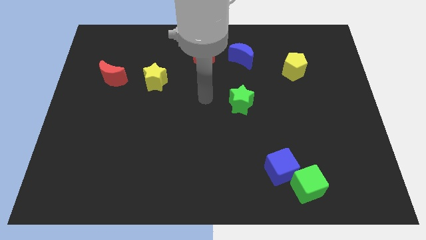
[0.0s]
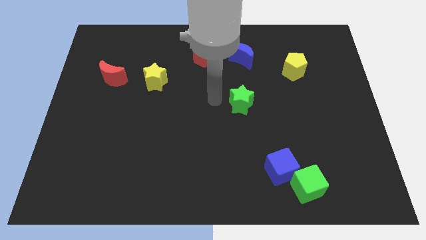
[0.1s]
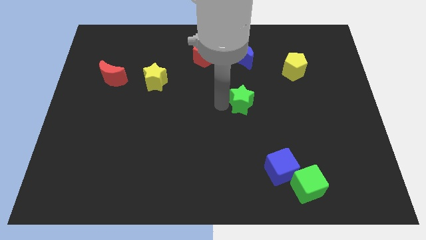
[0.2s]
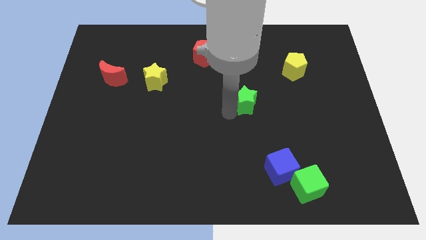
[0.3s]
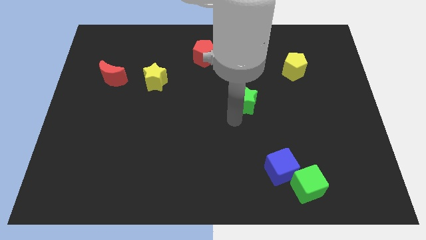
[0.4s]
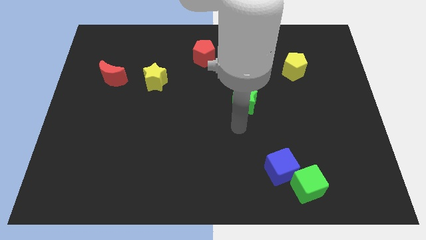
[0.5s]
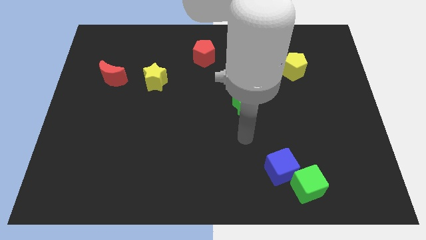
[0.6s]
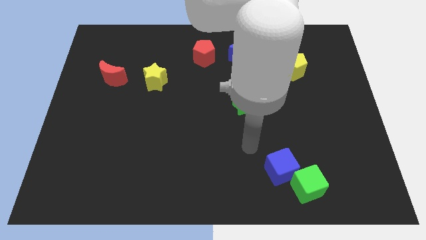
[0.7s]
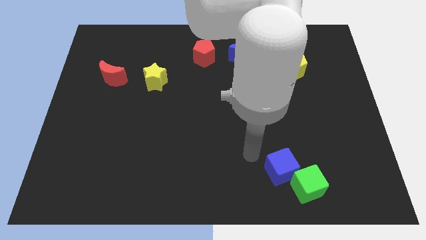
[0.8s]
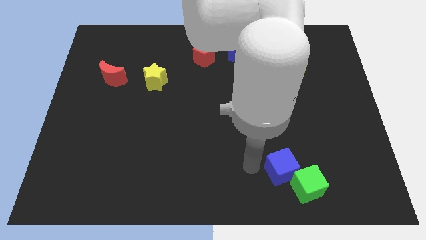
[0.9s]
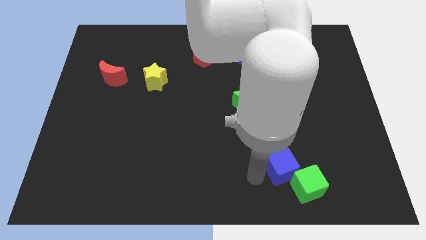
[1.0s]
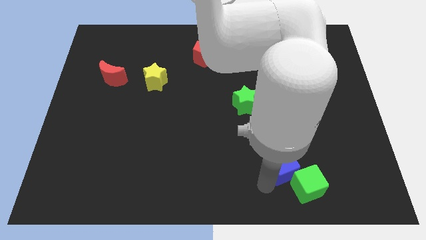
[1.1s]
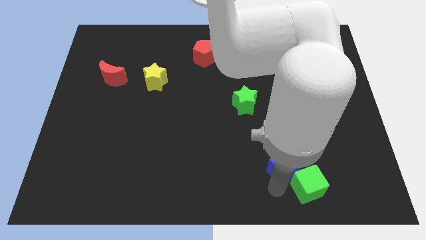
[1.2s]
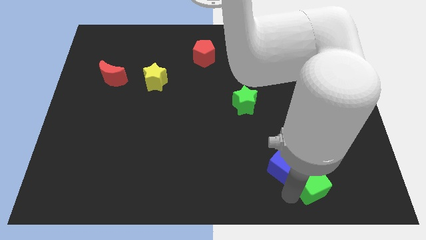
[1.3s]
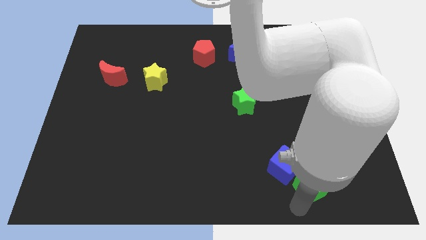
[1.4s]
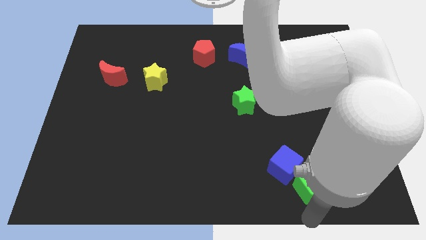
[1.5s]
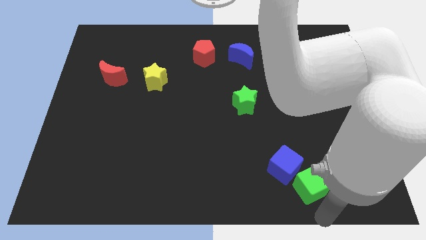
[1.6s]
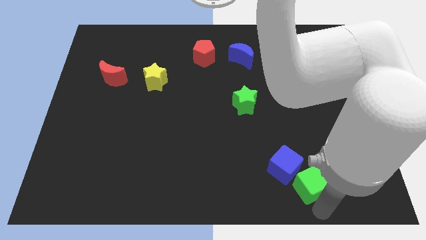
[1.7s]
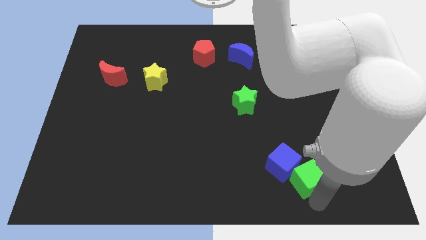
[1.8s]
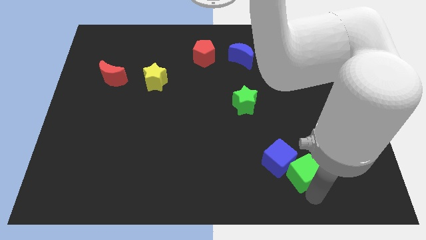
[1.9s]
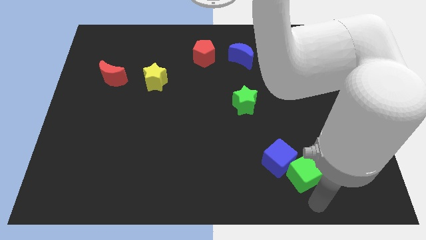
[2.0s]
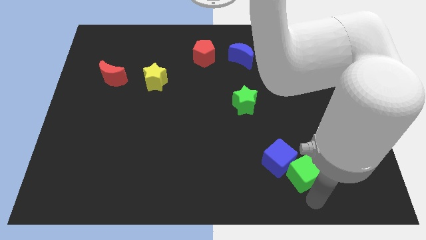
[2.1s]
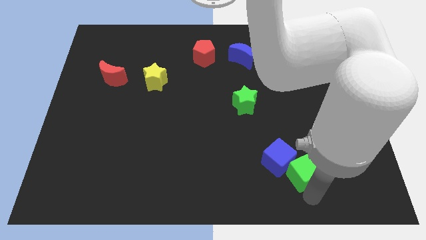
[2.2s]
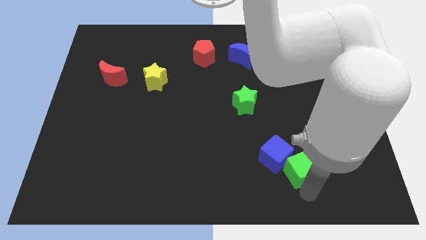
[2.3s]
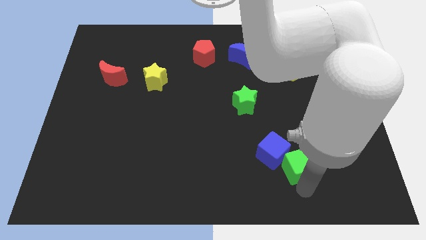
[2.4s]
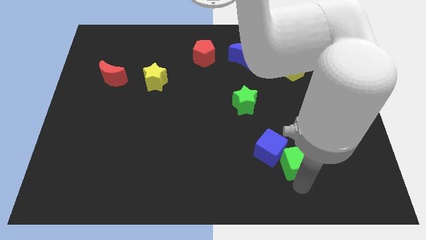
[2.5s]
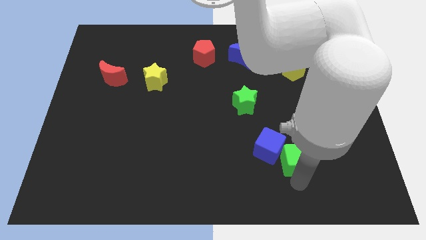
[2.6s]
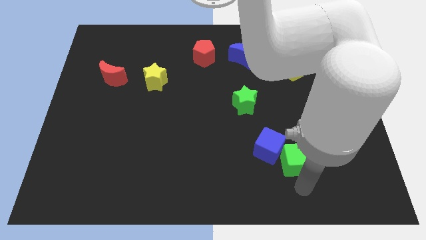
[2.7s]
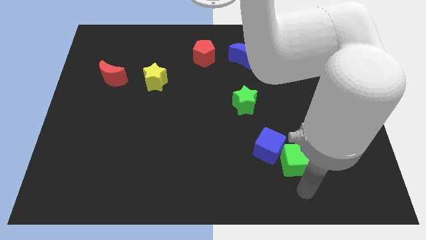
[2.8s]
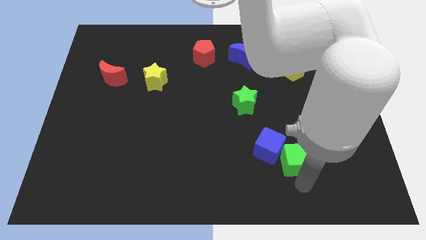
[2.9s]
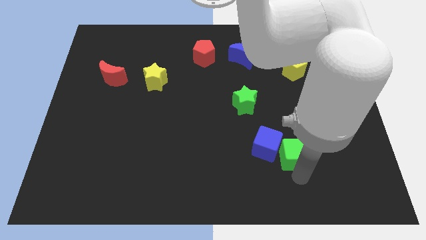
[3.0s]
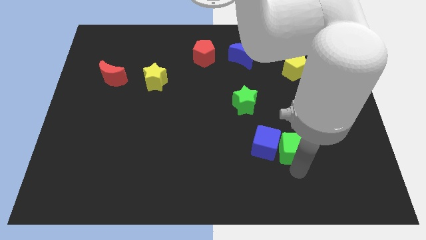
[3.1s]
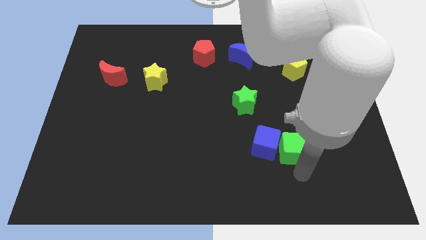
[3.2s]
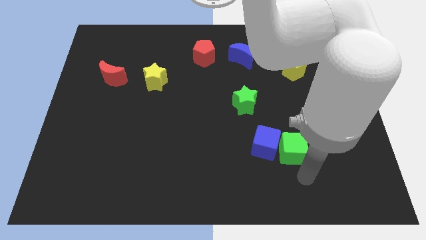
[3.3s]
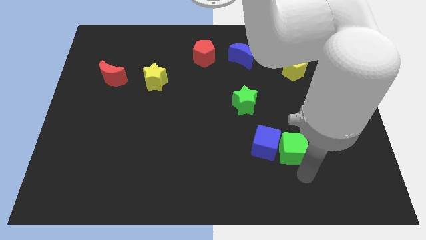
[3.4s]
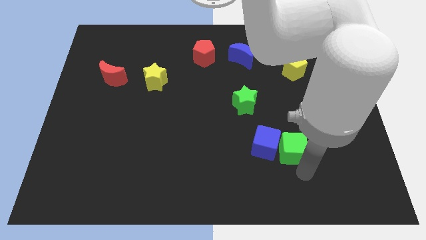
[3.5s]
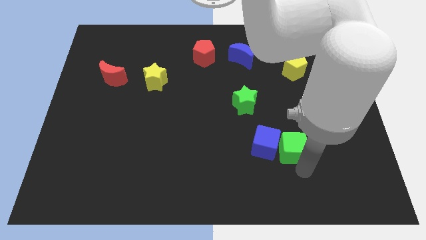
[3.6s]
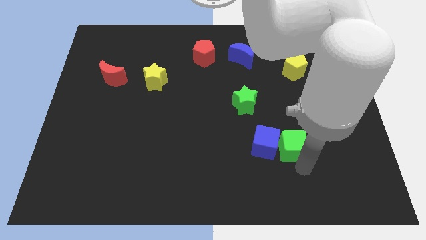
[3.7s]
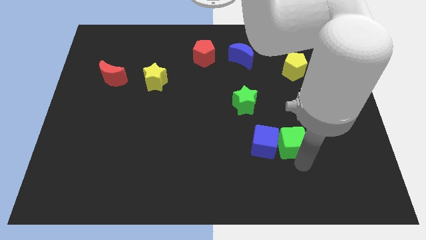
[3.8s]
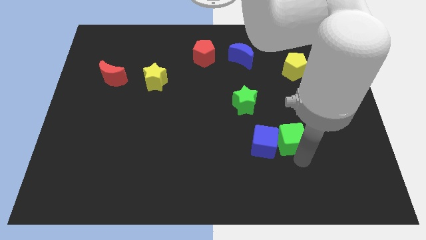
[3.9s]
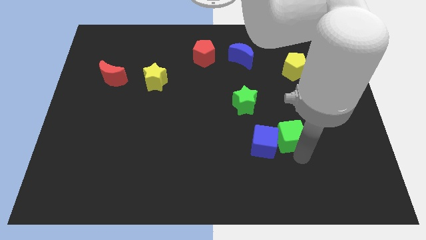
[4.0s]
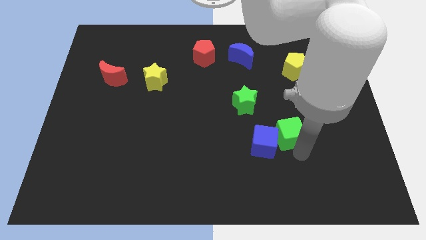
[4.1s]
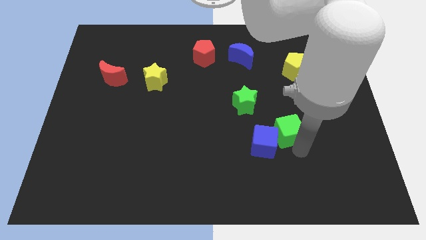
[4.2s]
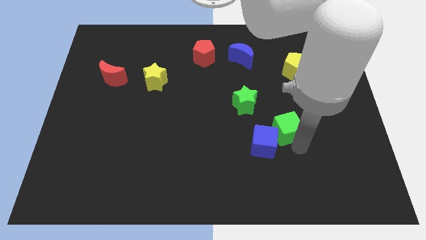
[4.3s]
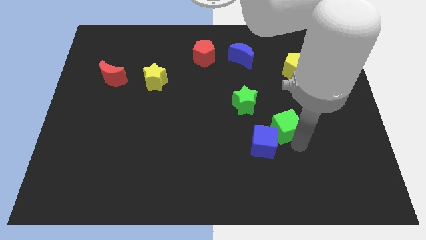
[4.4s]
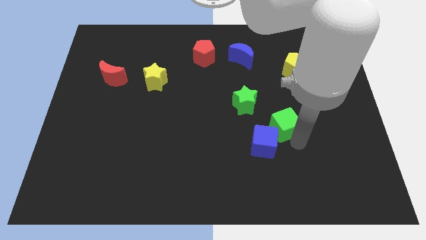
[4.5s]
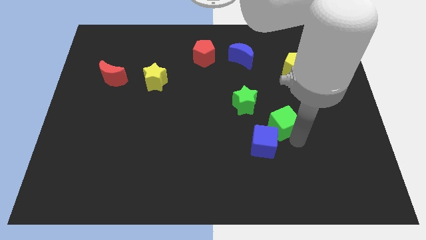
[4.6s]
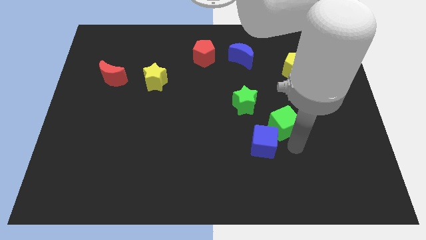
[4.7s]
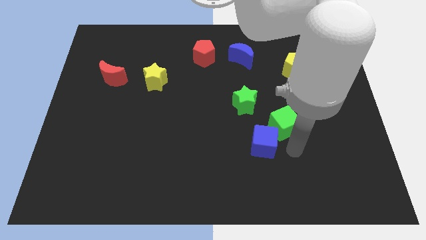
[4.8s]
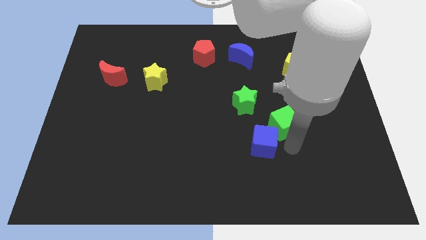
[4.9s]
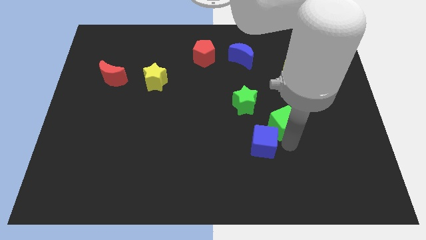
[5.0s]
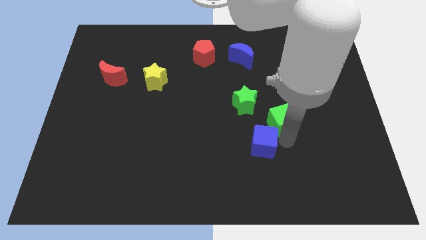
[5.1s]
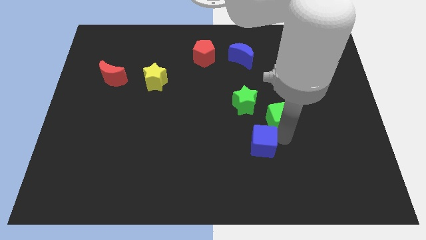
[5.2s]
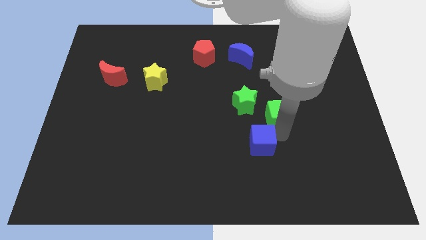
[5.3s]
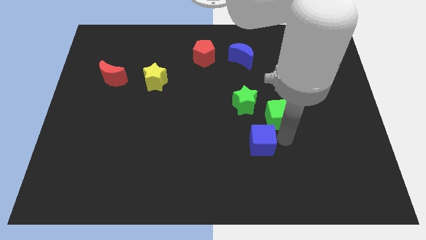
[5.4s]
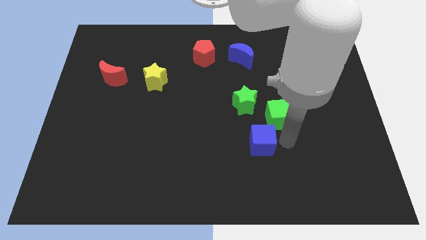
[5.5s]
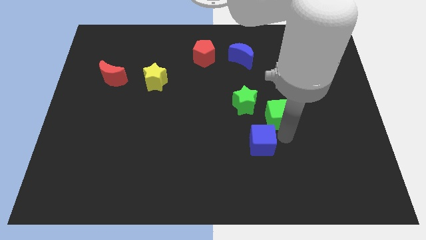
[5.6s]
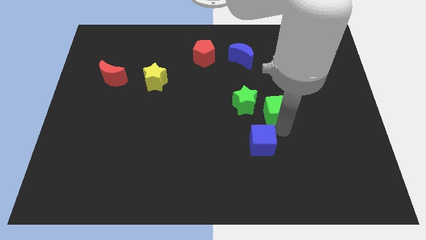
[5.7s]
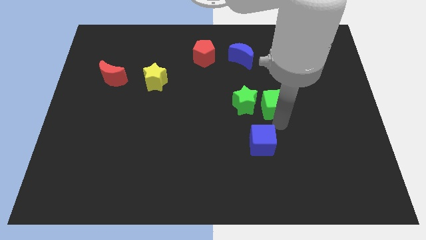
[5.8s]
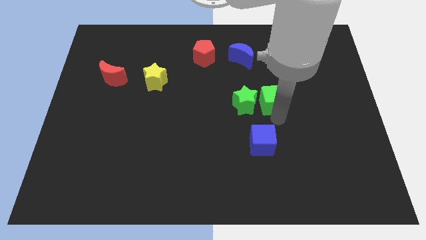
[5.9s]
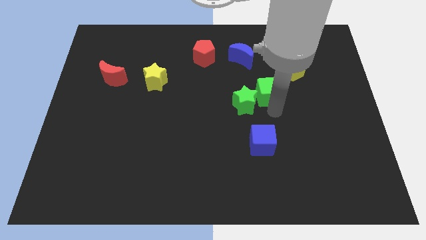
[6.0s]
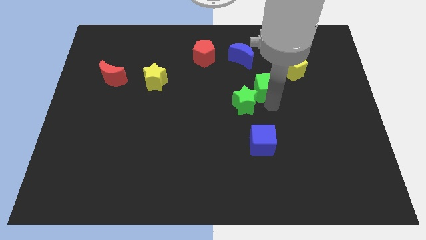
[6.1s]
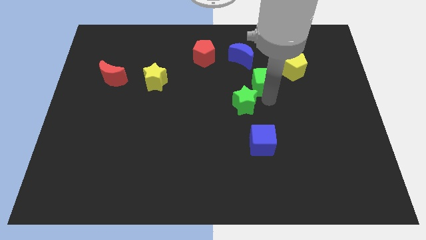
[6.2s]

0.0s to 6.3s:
slide the green cube to the bottom right of the blue moon

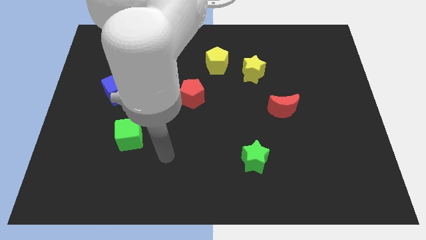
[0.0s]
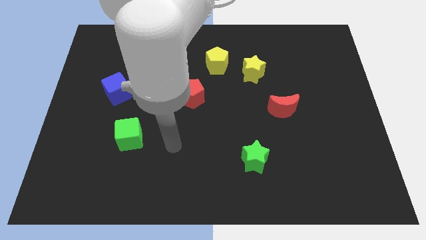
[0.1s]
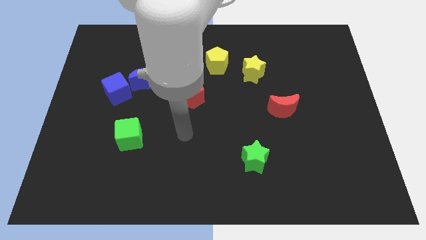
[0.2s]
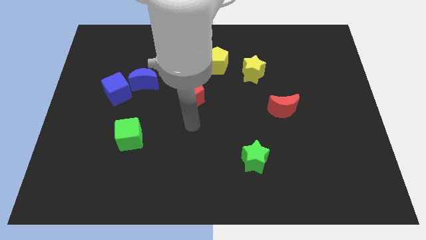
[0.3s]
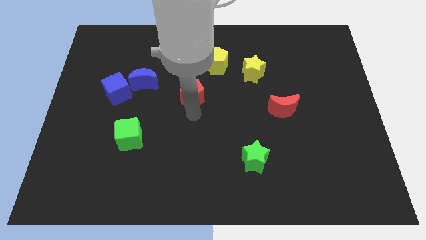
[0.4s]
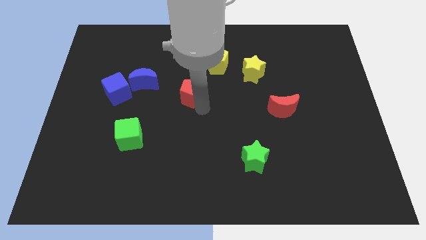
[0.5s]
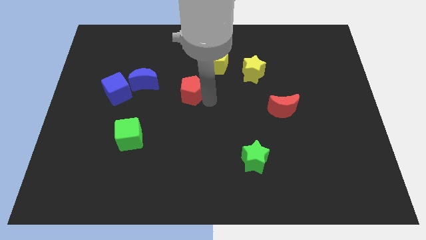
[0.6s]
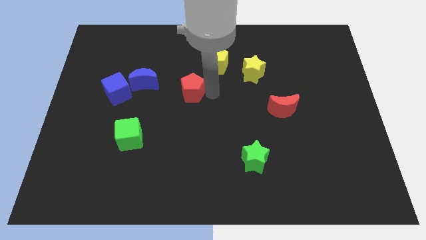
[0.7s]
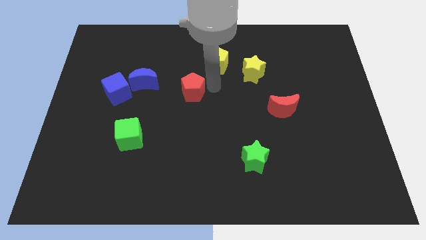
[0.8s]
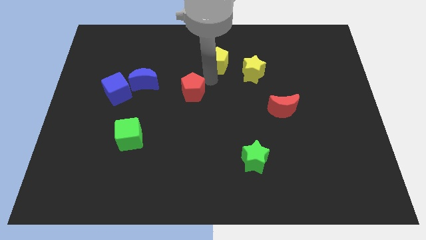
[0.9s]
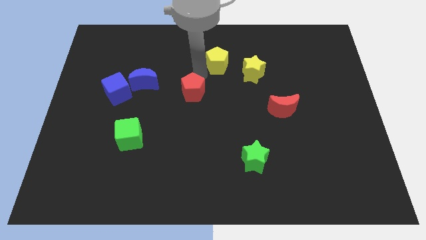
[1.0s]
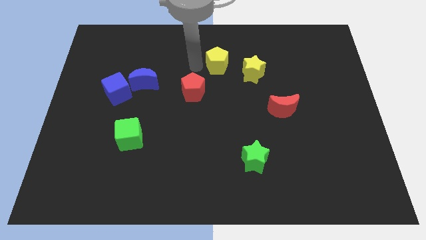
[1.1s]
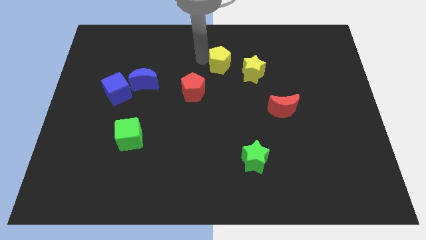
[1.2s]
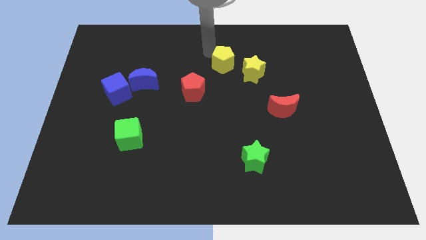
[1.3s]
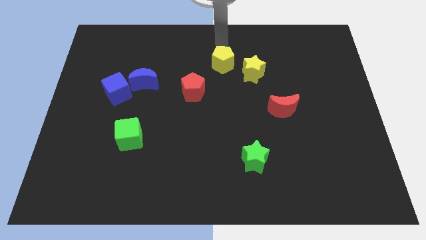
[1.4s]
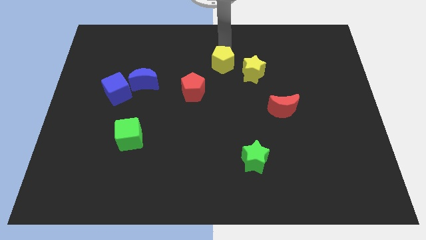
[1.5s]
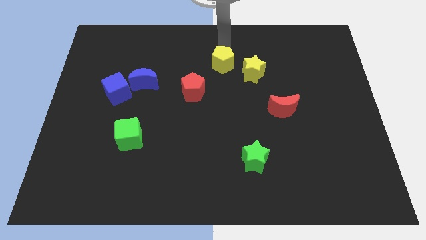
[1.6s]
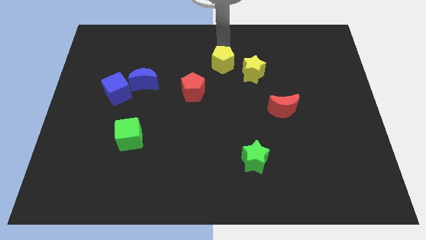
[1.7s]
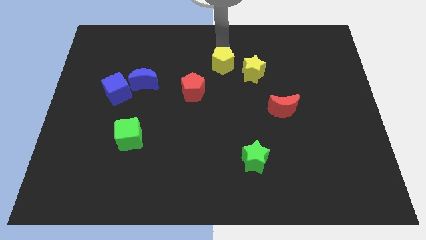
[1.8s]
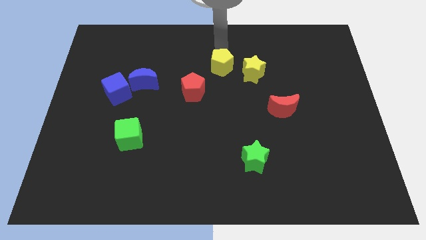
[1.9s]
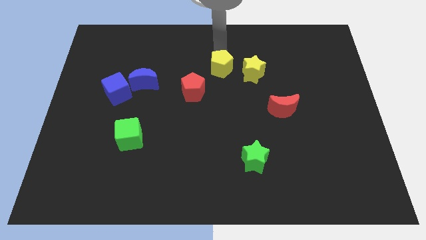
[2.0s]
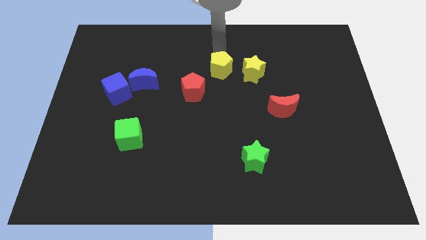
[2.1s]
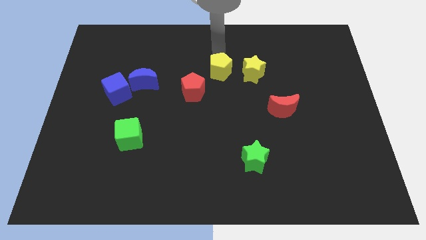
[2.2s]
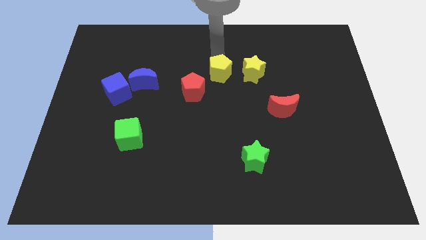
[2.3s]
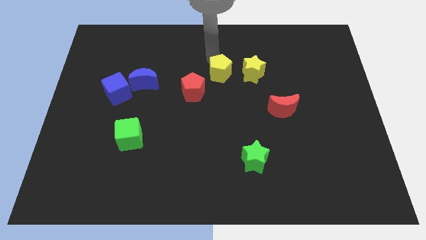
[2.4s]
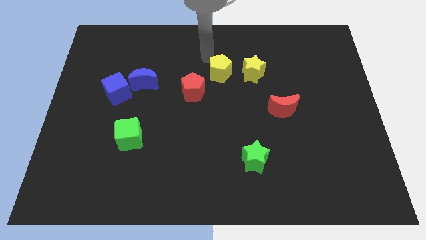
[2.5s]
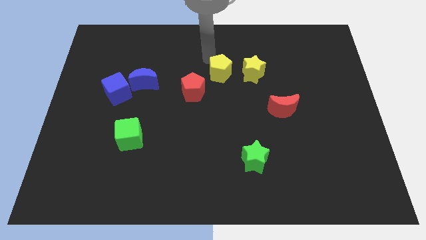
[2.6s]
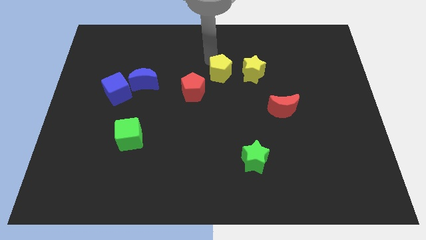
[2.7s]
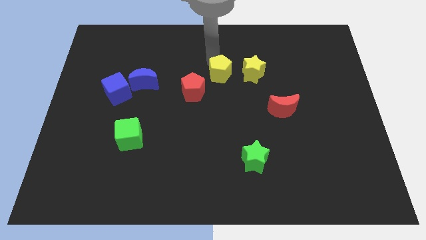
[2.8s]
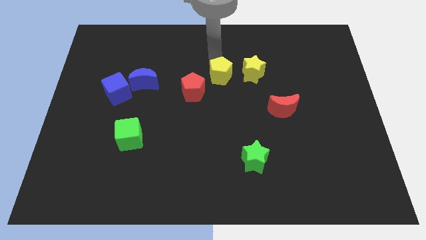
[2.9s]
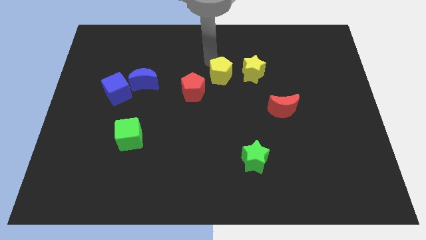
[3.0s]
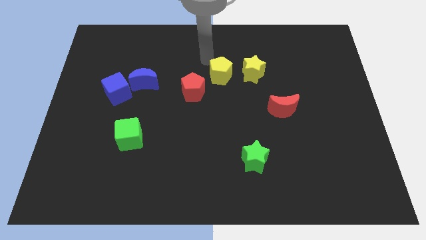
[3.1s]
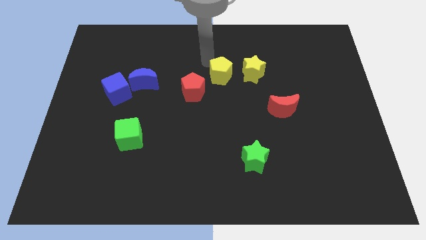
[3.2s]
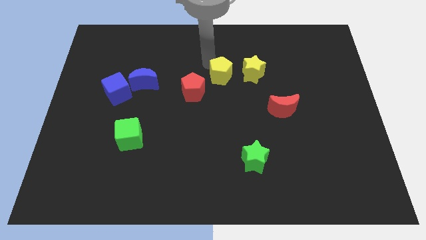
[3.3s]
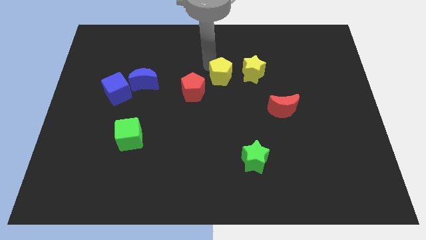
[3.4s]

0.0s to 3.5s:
slide the yellow pentagon to the right of the red pentagon
